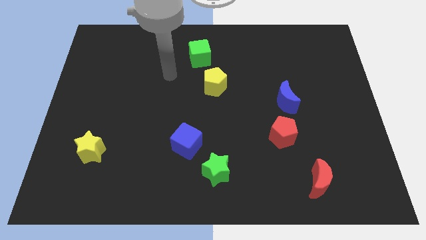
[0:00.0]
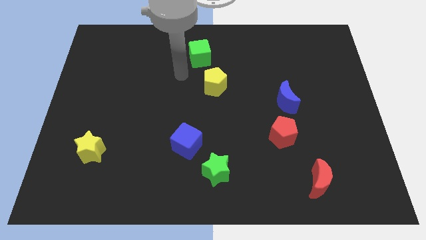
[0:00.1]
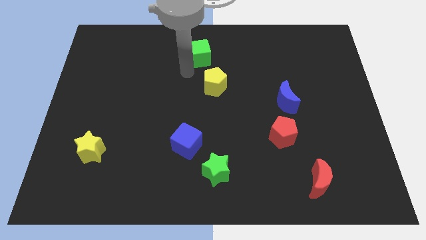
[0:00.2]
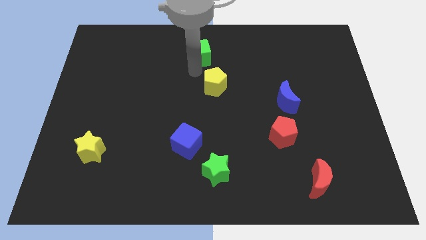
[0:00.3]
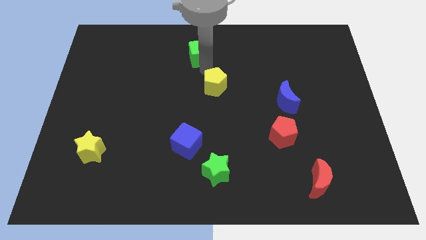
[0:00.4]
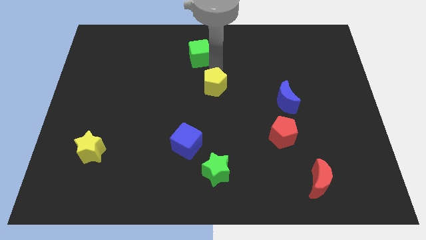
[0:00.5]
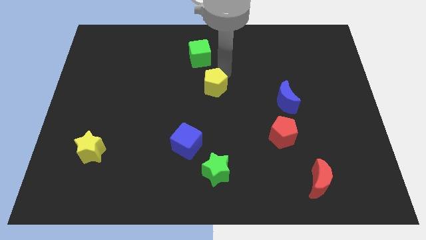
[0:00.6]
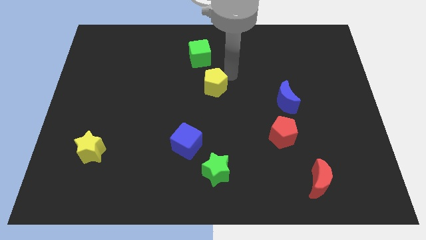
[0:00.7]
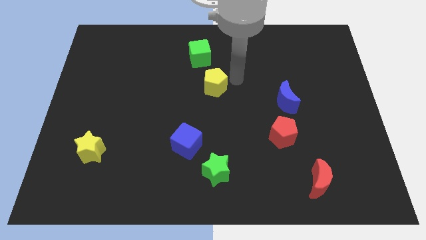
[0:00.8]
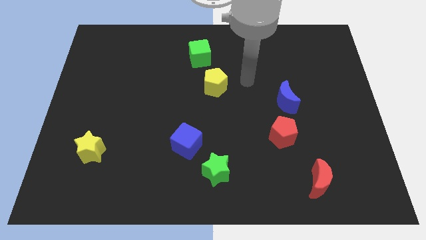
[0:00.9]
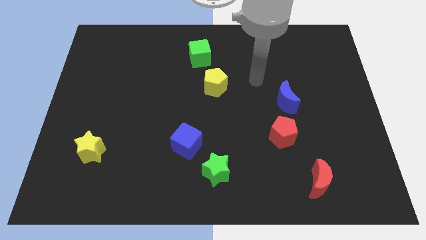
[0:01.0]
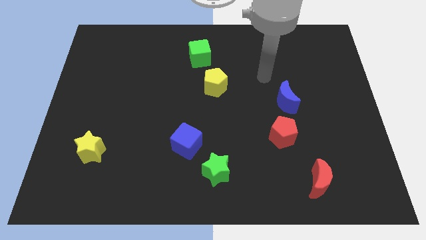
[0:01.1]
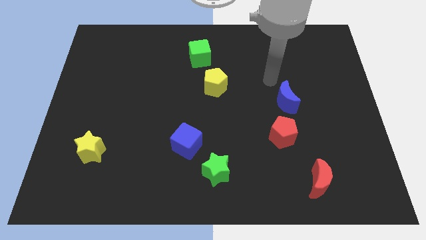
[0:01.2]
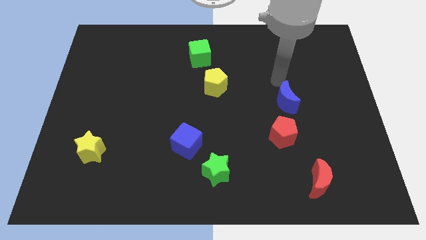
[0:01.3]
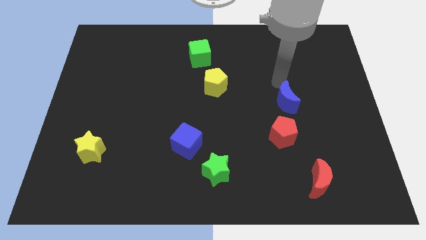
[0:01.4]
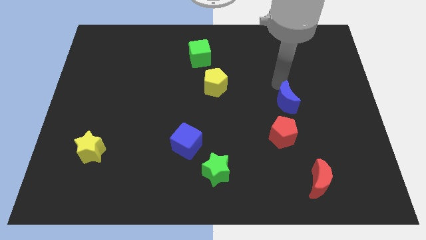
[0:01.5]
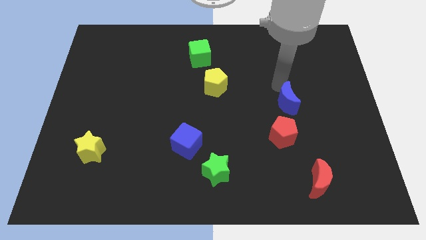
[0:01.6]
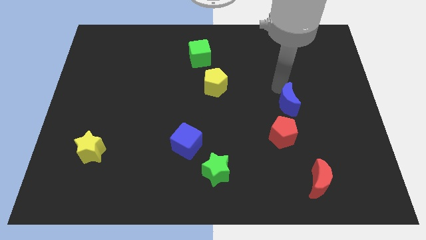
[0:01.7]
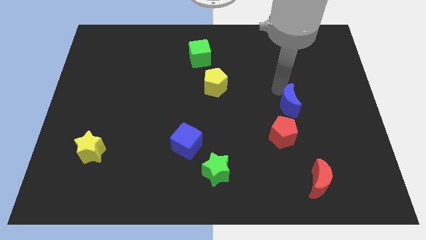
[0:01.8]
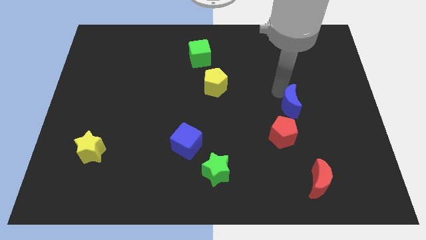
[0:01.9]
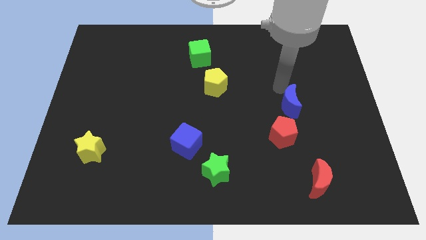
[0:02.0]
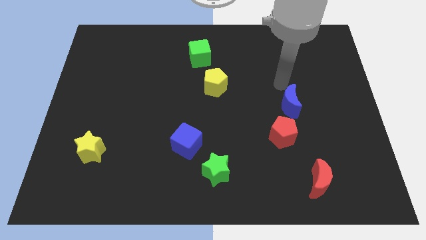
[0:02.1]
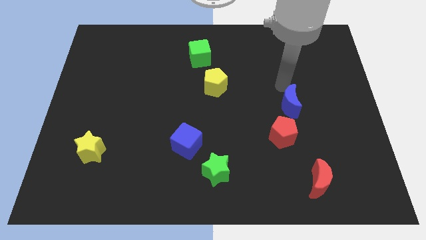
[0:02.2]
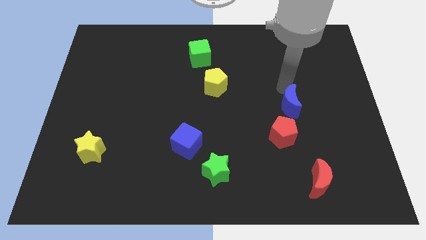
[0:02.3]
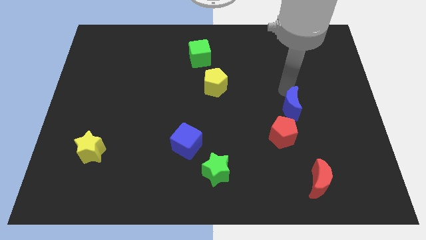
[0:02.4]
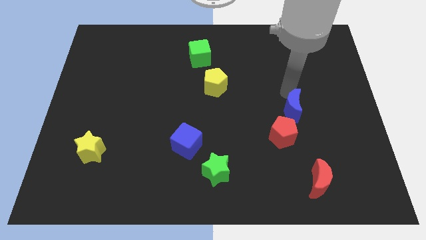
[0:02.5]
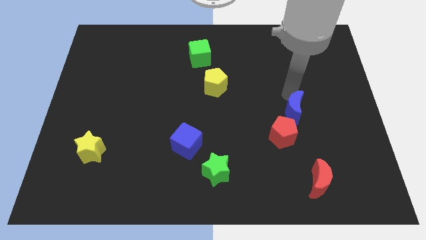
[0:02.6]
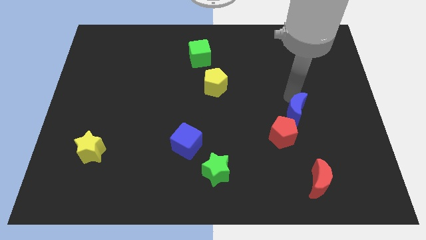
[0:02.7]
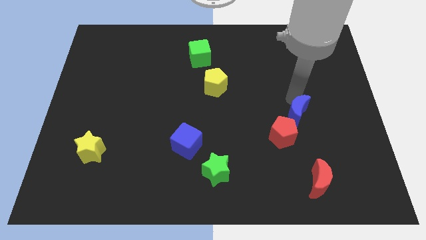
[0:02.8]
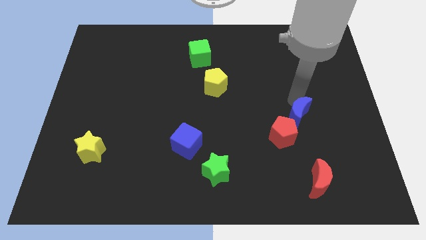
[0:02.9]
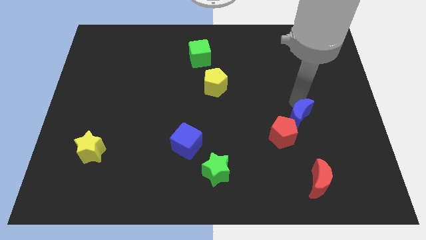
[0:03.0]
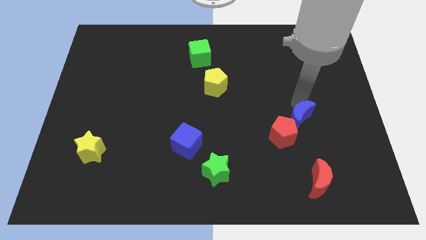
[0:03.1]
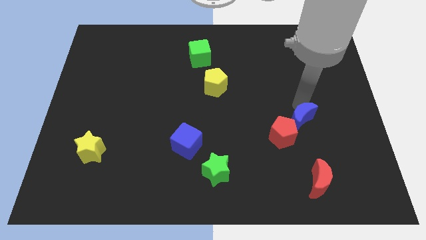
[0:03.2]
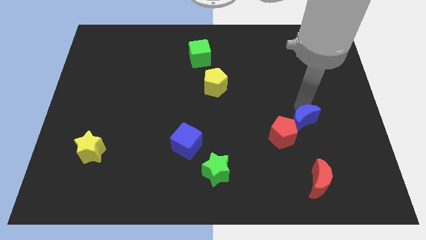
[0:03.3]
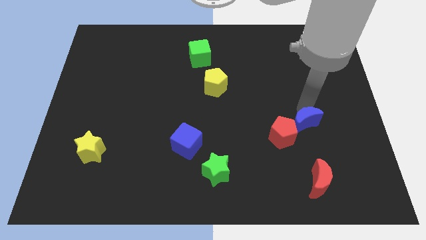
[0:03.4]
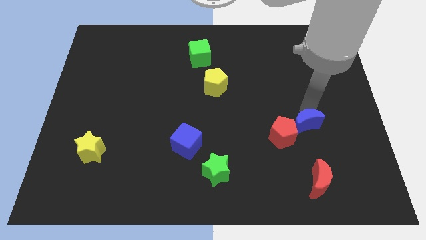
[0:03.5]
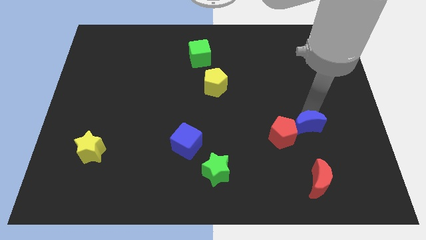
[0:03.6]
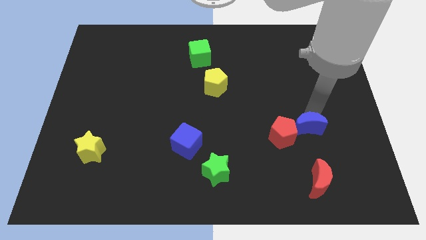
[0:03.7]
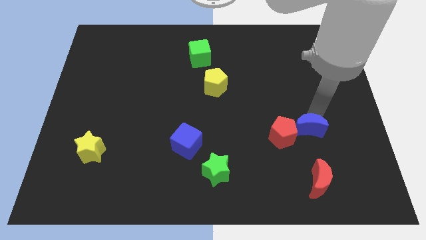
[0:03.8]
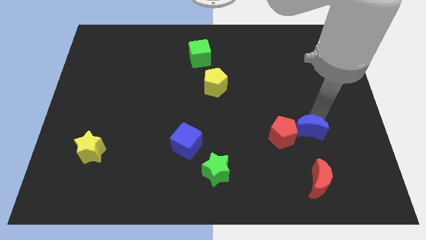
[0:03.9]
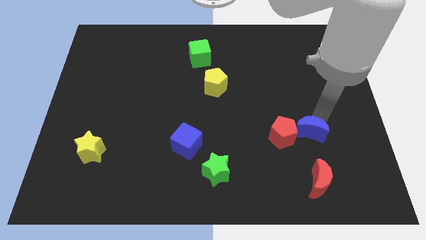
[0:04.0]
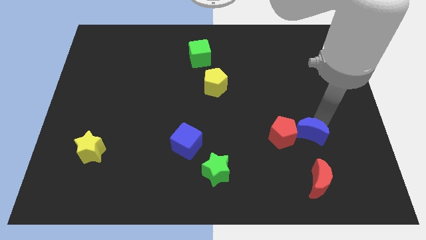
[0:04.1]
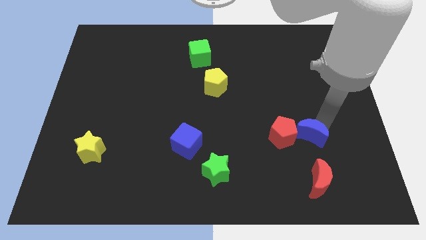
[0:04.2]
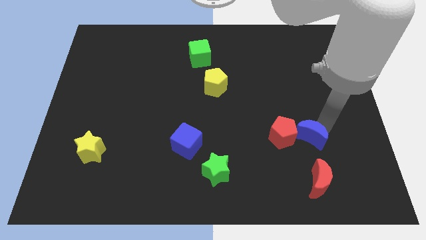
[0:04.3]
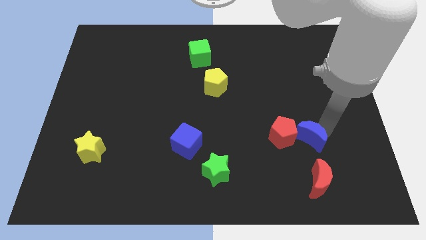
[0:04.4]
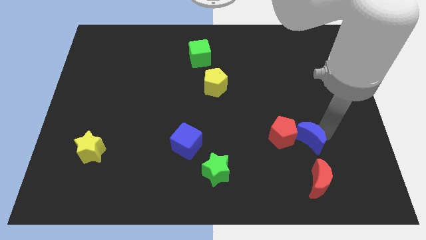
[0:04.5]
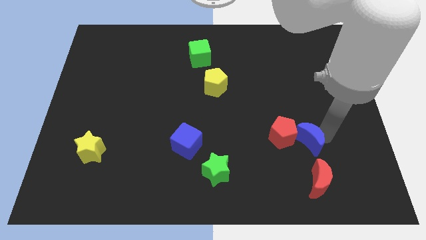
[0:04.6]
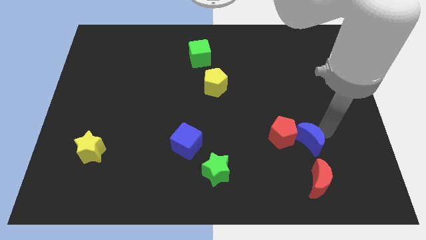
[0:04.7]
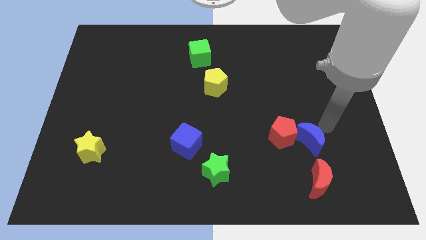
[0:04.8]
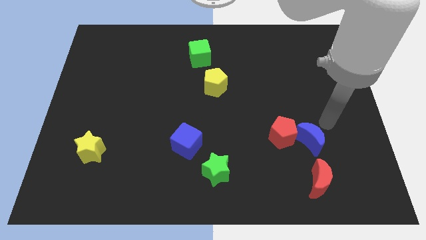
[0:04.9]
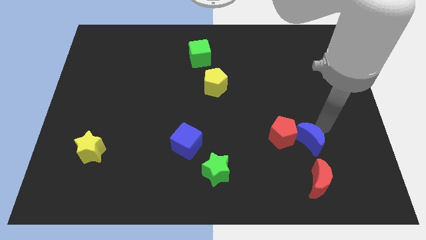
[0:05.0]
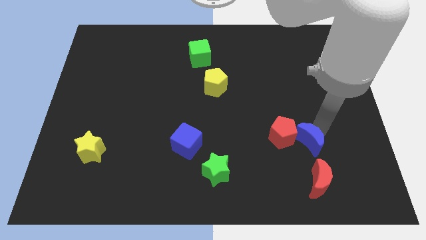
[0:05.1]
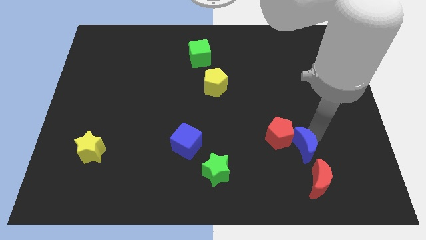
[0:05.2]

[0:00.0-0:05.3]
move the blue moon to the top left side of the red moon

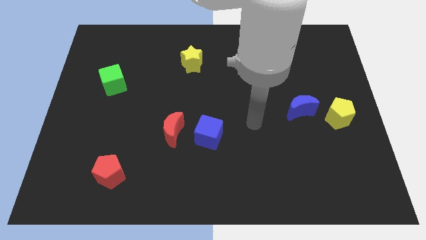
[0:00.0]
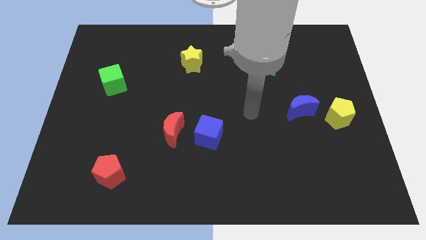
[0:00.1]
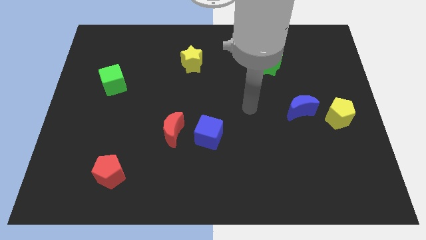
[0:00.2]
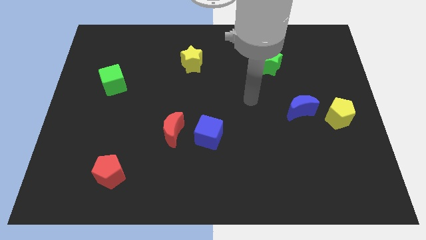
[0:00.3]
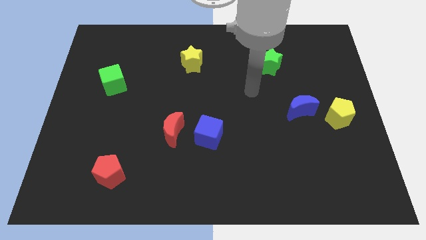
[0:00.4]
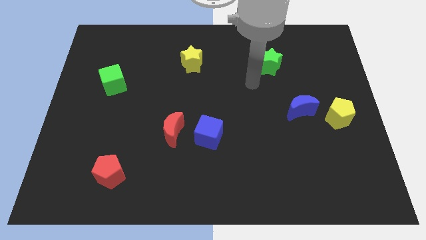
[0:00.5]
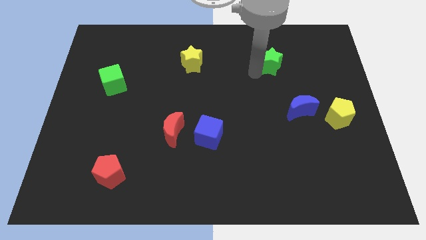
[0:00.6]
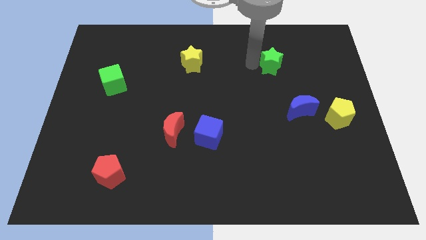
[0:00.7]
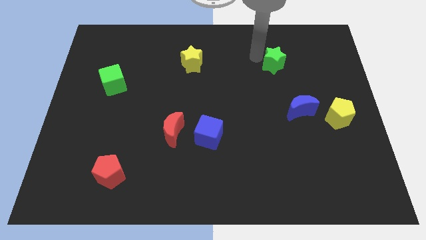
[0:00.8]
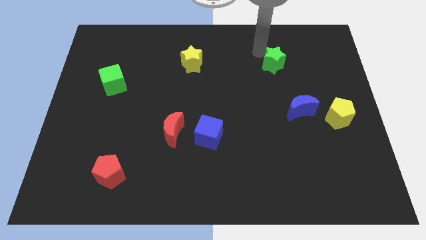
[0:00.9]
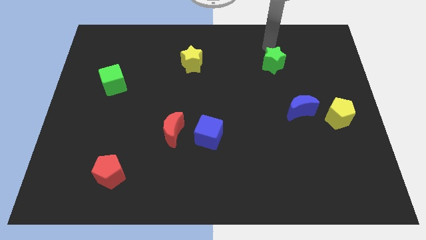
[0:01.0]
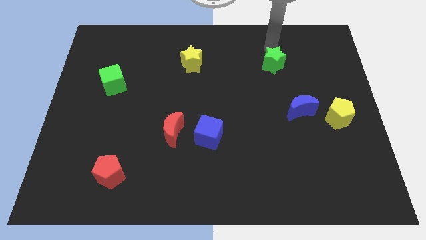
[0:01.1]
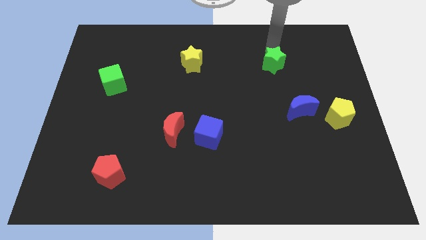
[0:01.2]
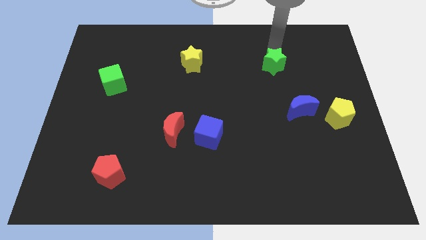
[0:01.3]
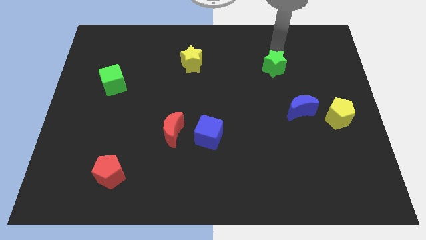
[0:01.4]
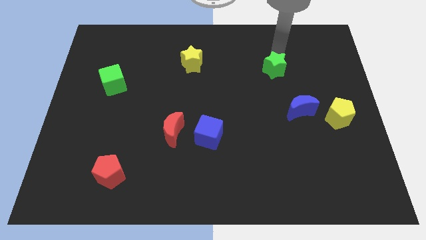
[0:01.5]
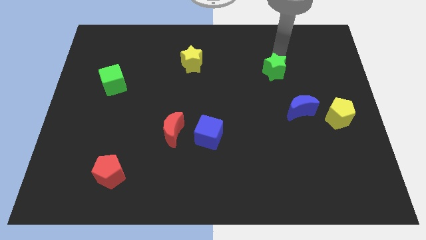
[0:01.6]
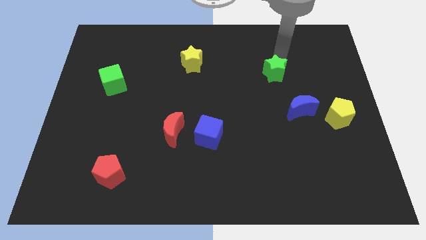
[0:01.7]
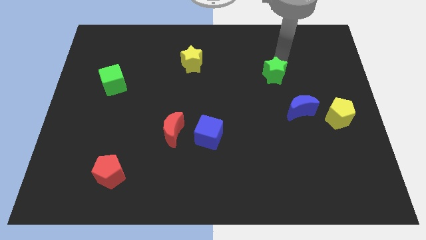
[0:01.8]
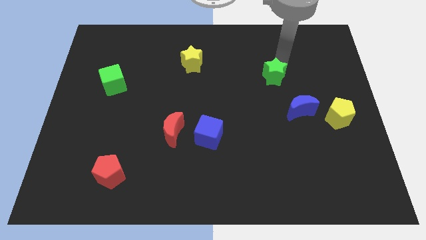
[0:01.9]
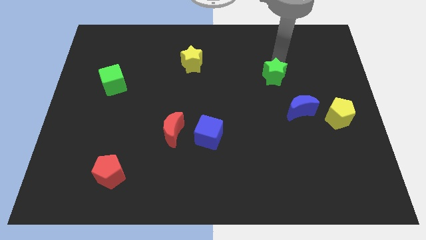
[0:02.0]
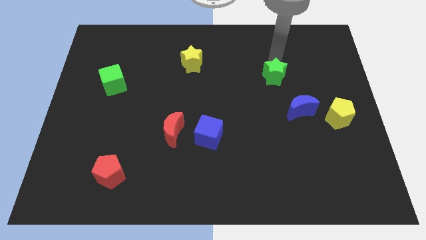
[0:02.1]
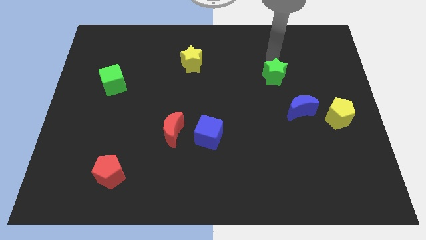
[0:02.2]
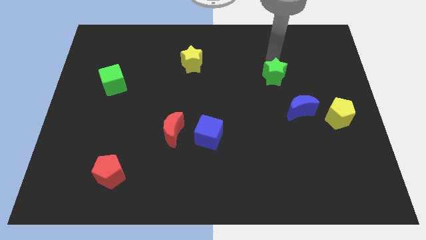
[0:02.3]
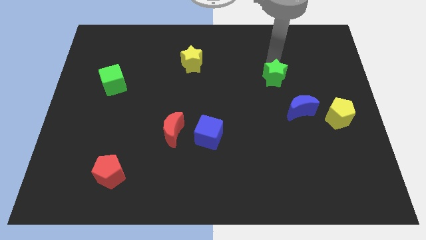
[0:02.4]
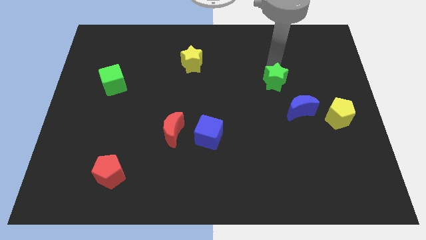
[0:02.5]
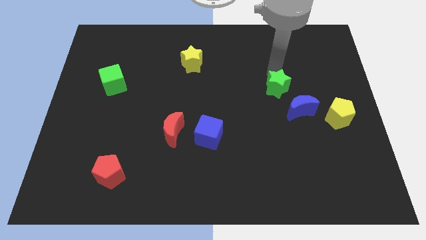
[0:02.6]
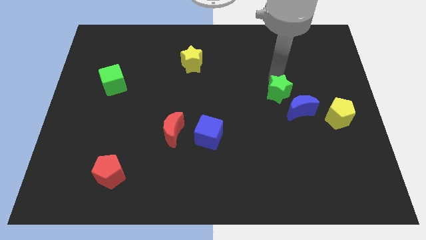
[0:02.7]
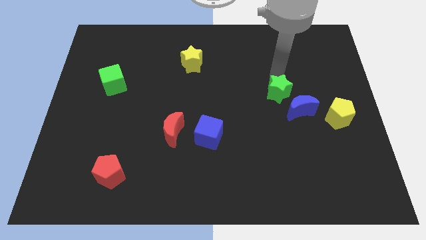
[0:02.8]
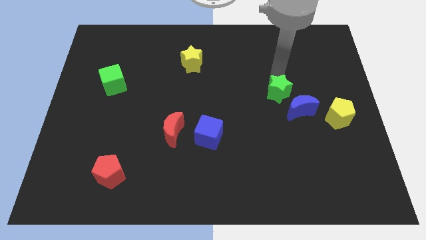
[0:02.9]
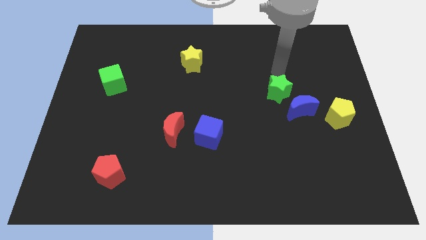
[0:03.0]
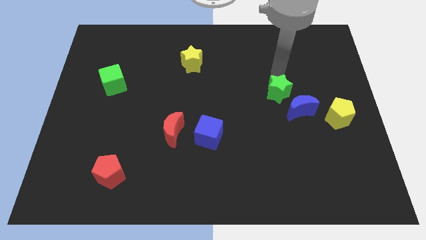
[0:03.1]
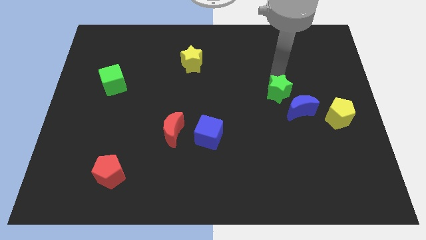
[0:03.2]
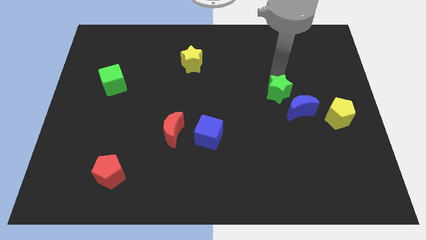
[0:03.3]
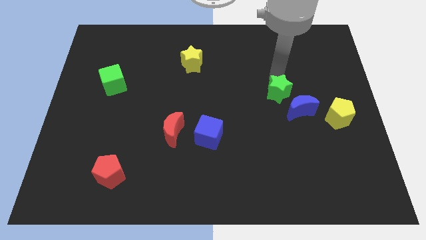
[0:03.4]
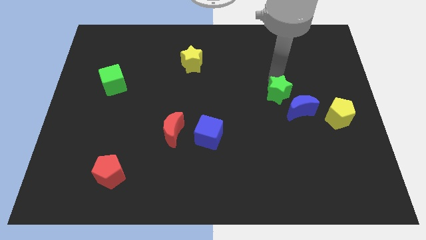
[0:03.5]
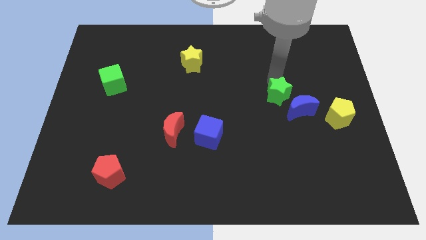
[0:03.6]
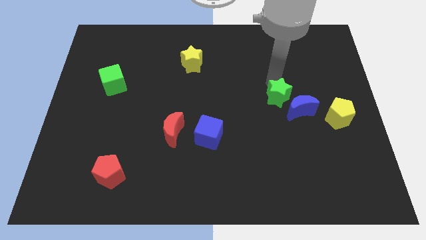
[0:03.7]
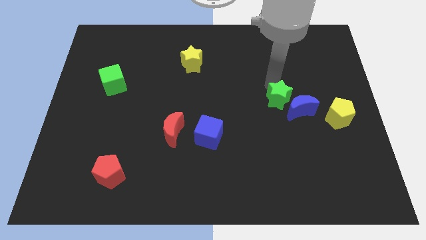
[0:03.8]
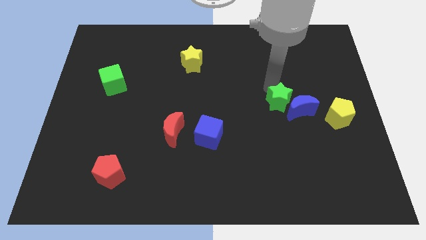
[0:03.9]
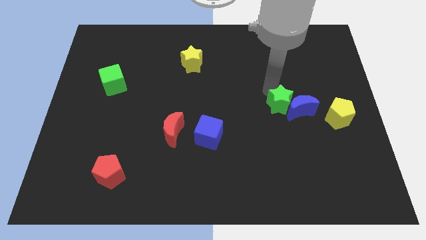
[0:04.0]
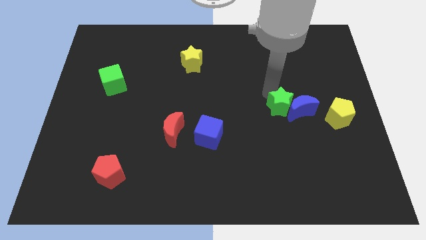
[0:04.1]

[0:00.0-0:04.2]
push the green star to the bottom left of the blue moon
